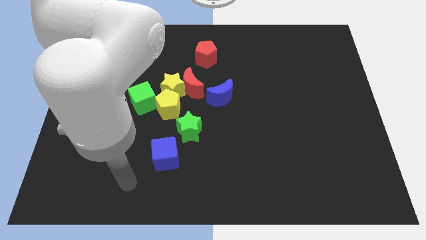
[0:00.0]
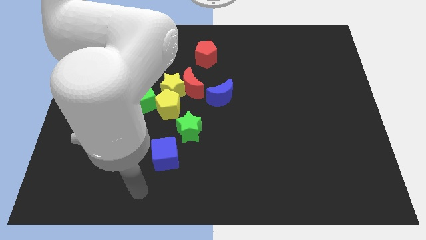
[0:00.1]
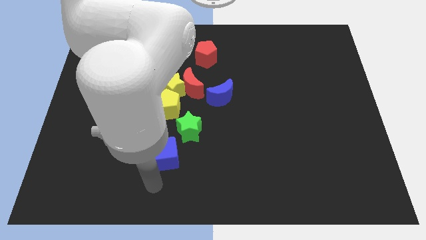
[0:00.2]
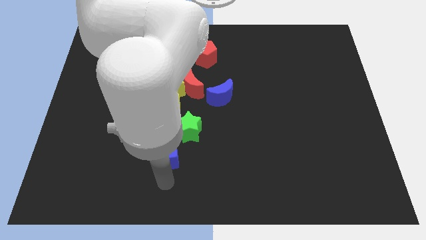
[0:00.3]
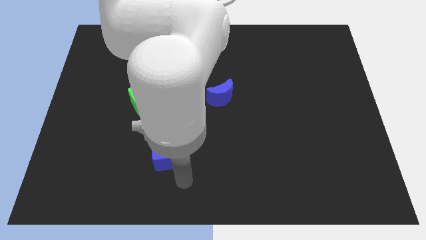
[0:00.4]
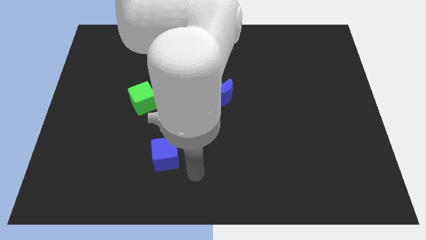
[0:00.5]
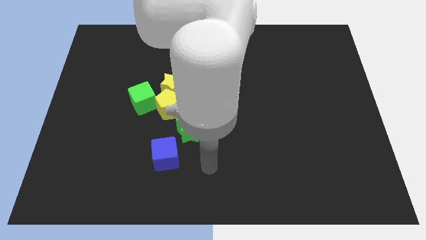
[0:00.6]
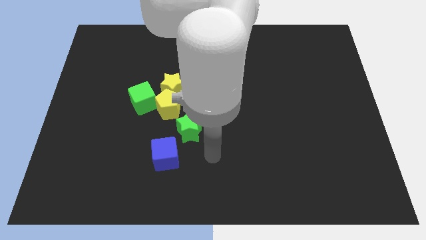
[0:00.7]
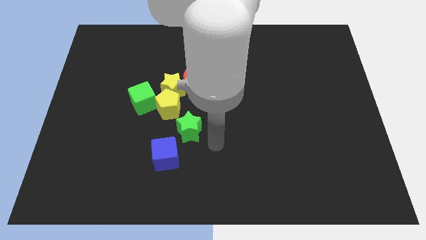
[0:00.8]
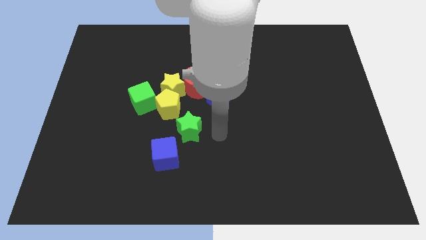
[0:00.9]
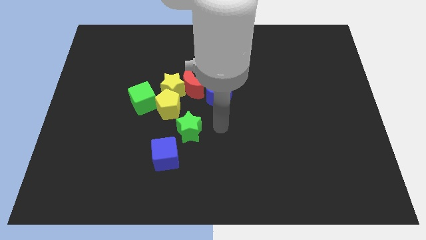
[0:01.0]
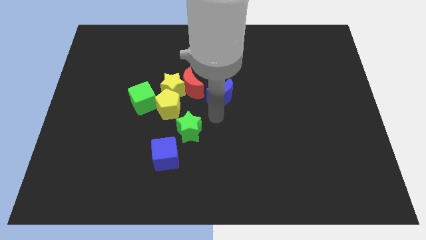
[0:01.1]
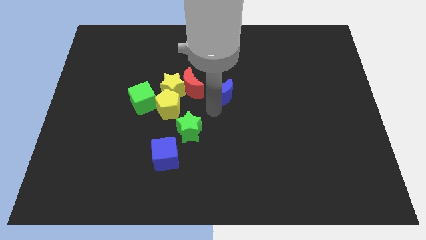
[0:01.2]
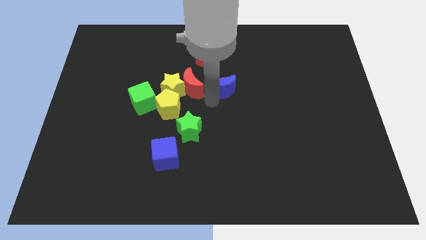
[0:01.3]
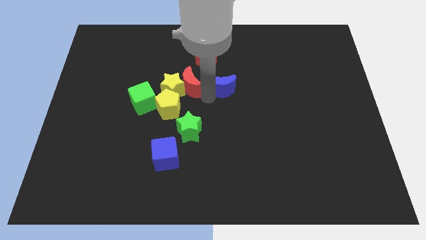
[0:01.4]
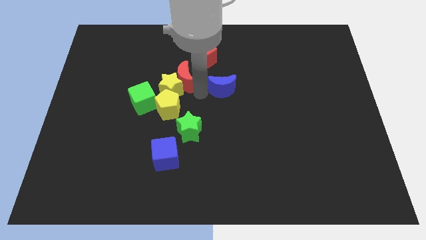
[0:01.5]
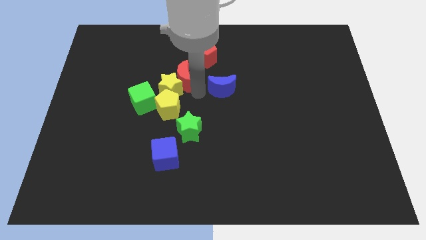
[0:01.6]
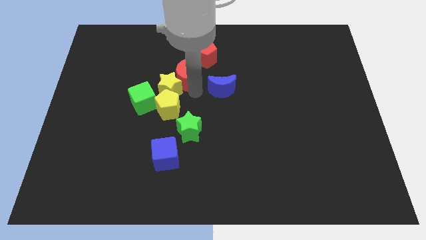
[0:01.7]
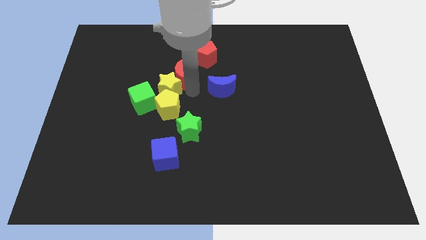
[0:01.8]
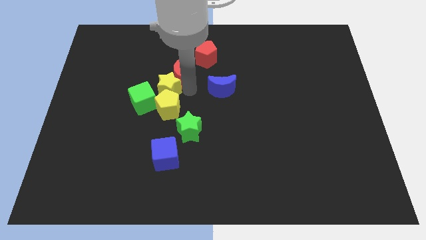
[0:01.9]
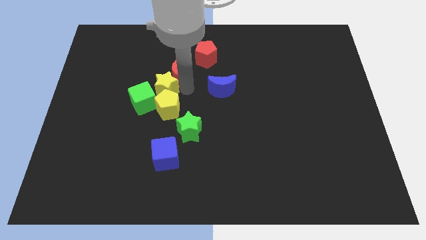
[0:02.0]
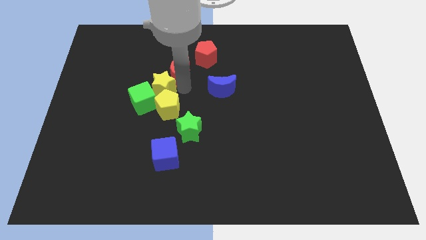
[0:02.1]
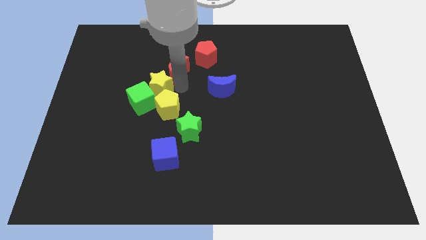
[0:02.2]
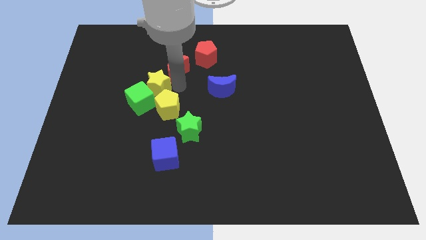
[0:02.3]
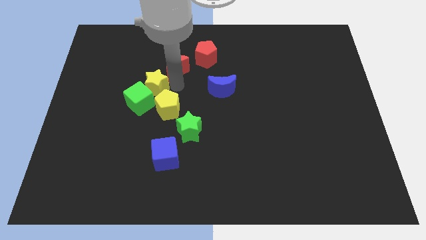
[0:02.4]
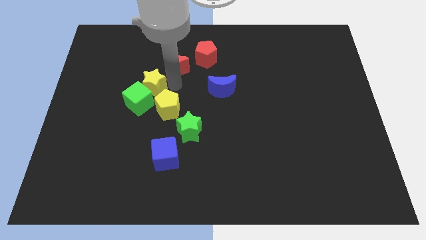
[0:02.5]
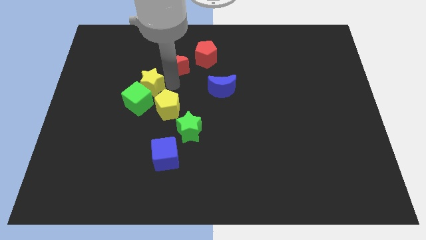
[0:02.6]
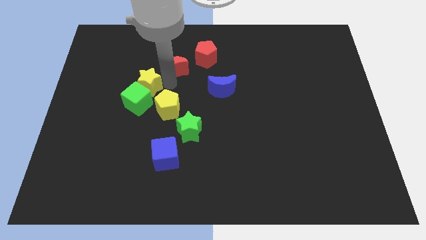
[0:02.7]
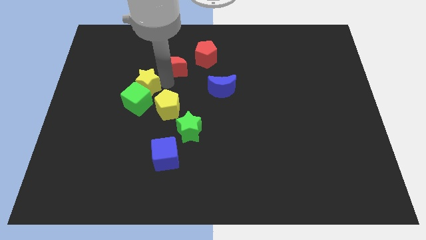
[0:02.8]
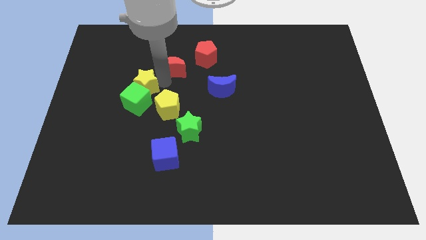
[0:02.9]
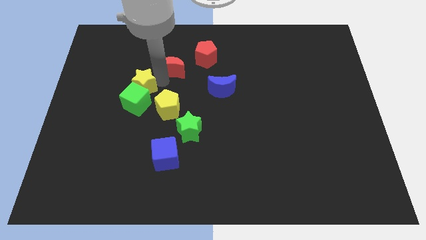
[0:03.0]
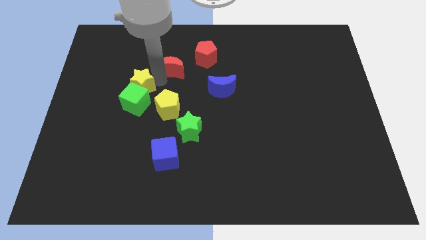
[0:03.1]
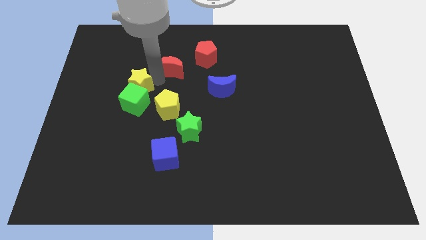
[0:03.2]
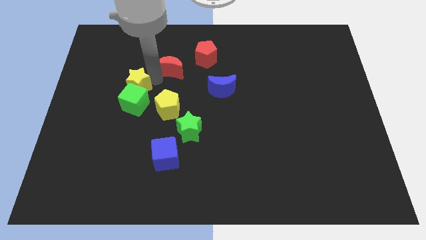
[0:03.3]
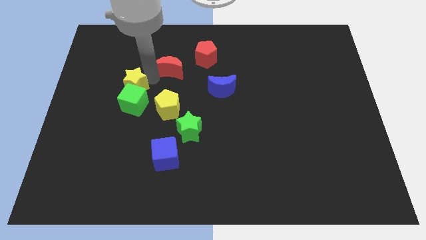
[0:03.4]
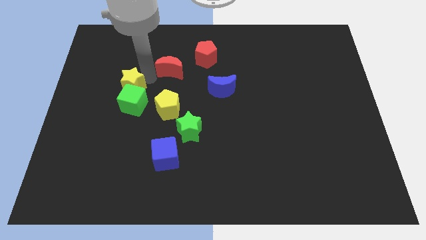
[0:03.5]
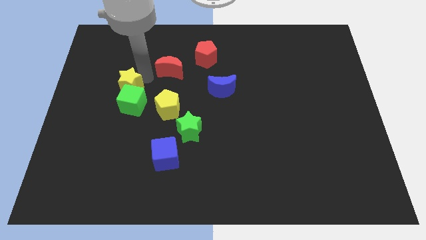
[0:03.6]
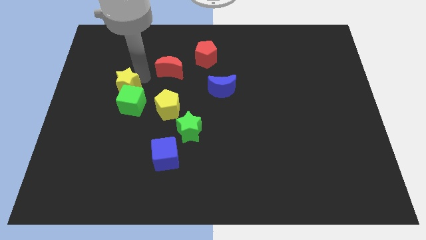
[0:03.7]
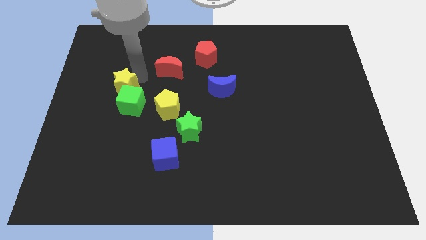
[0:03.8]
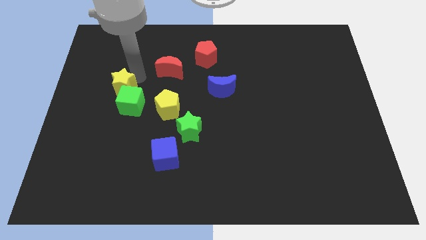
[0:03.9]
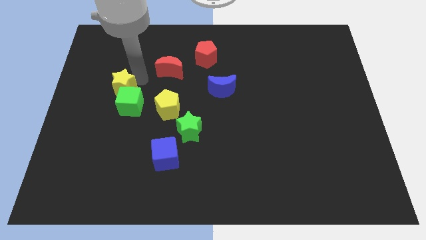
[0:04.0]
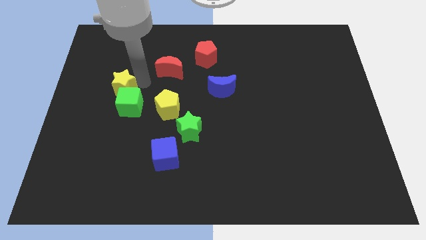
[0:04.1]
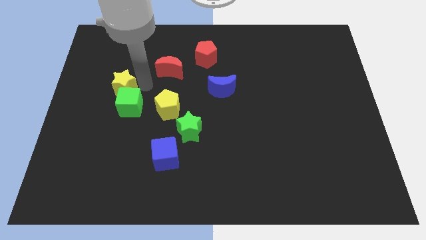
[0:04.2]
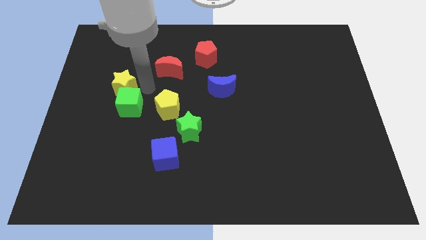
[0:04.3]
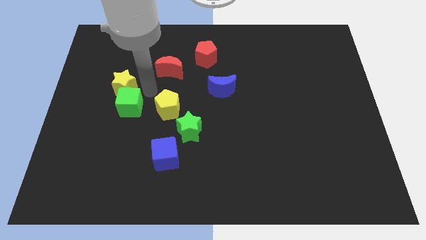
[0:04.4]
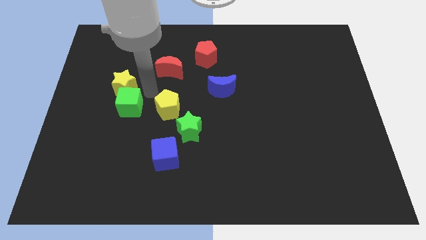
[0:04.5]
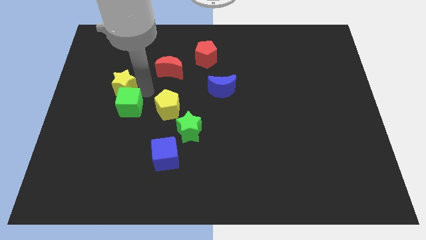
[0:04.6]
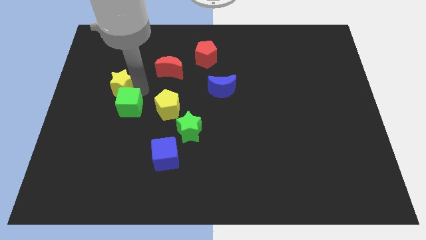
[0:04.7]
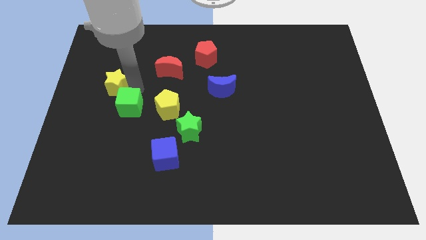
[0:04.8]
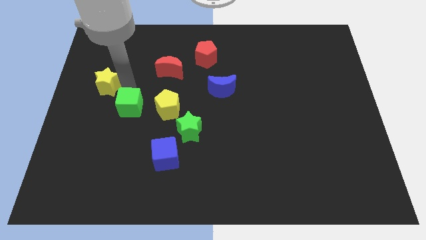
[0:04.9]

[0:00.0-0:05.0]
put the yellow star to the left side of the board

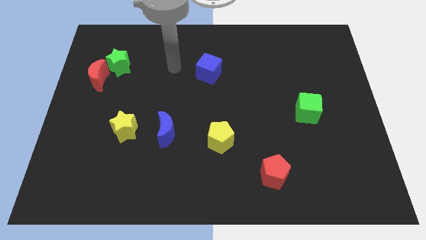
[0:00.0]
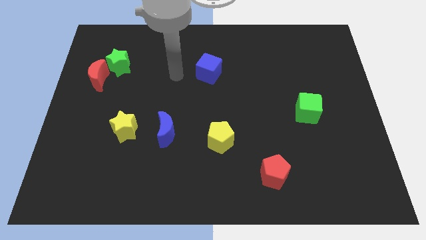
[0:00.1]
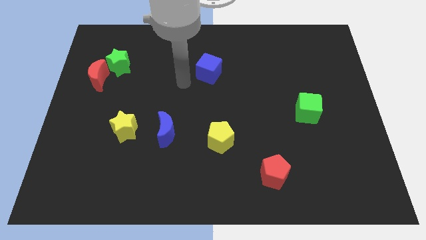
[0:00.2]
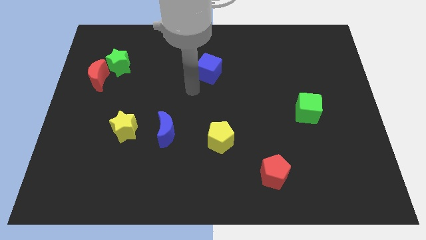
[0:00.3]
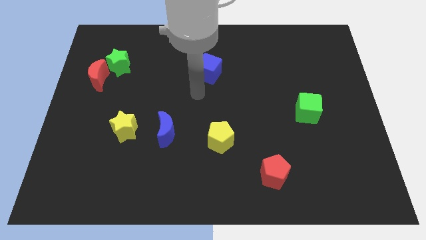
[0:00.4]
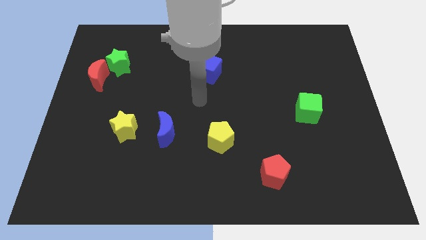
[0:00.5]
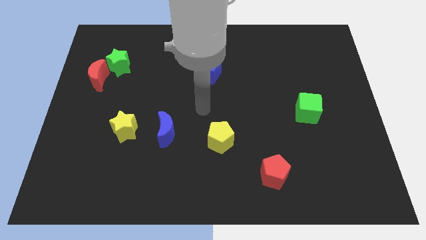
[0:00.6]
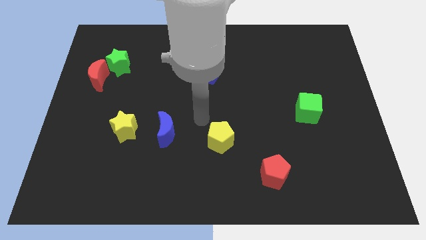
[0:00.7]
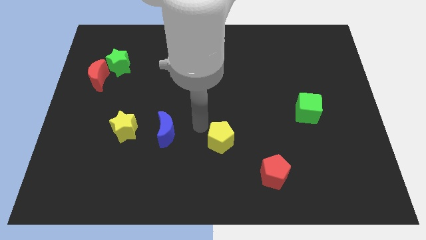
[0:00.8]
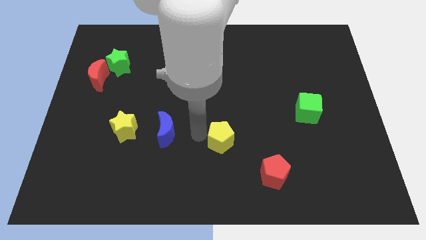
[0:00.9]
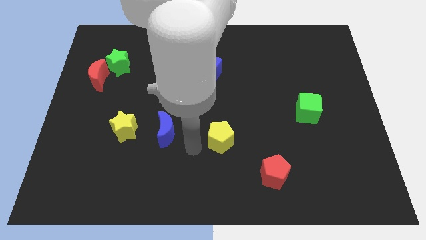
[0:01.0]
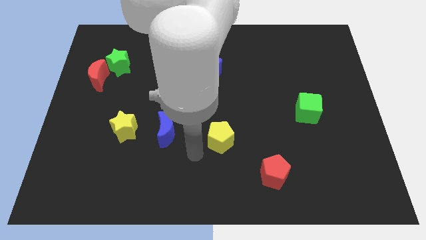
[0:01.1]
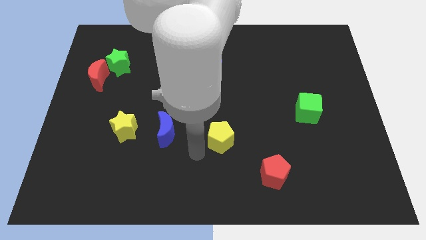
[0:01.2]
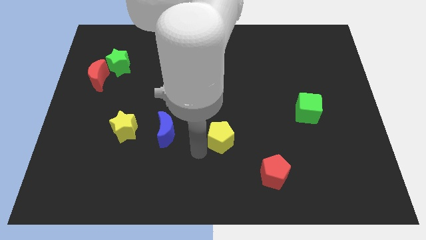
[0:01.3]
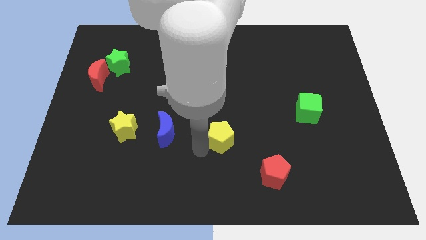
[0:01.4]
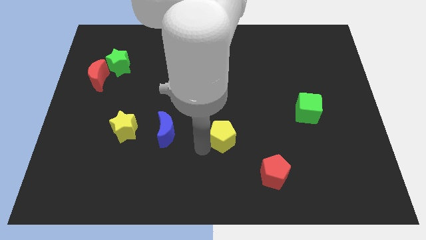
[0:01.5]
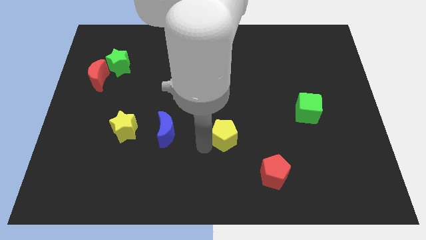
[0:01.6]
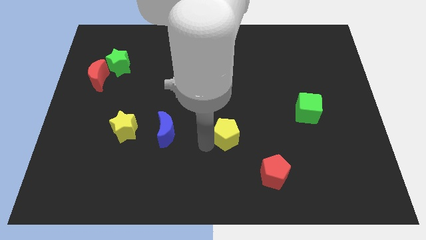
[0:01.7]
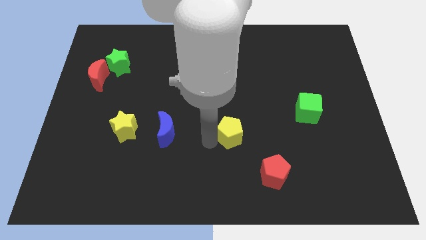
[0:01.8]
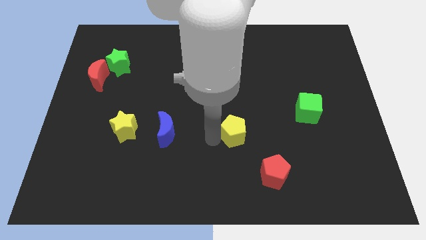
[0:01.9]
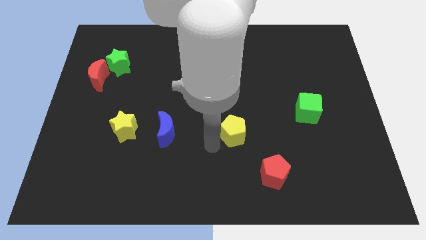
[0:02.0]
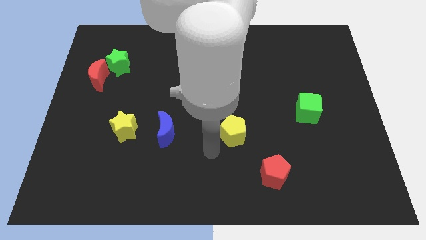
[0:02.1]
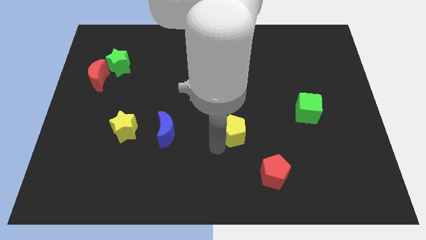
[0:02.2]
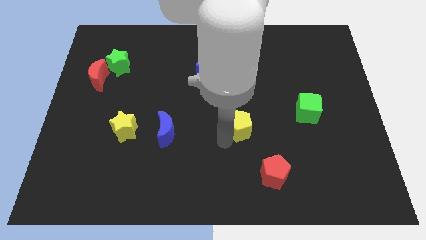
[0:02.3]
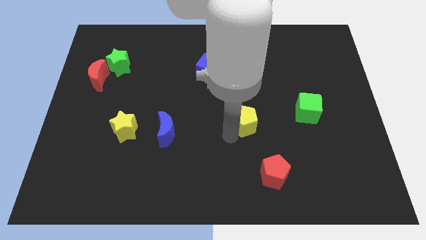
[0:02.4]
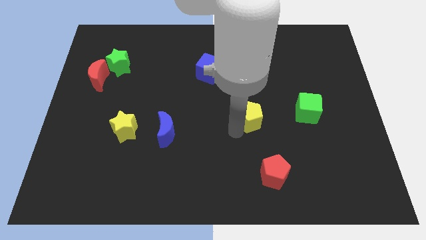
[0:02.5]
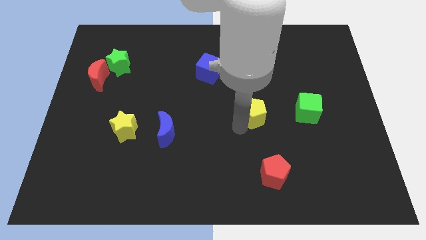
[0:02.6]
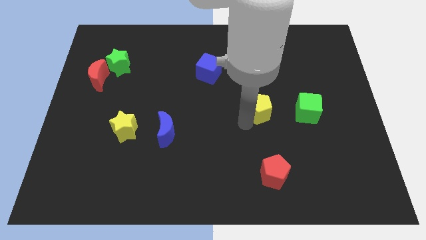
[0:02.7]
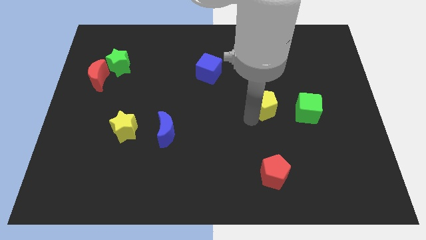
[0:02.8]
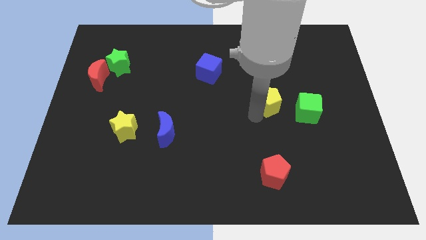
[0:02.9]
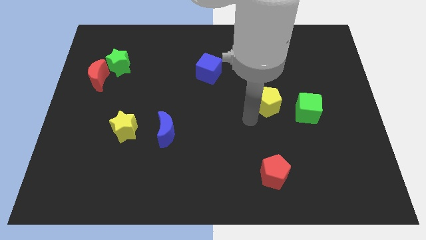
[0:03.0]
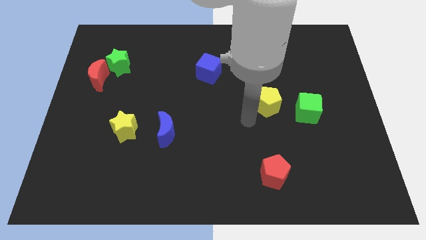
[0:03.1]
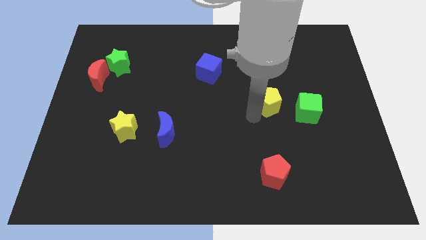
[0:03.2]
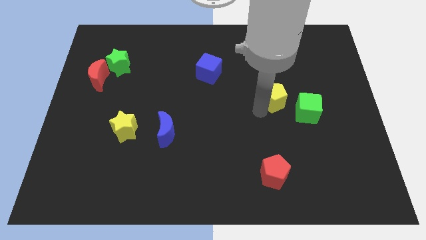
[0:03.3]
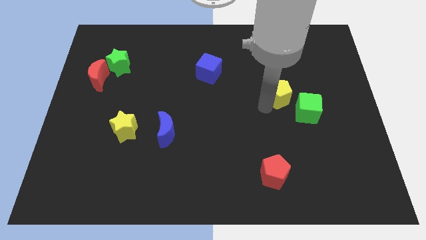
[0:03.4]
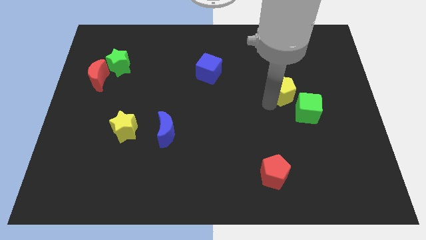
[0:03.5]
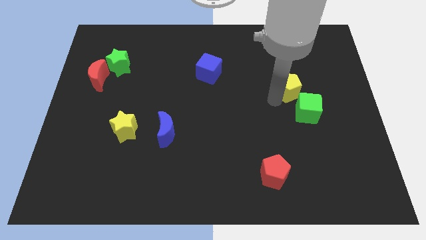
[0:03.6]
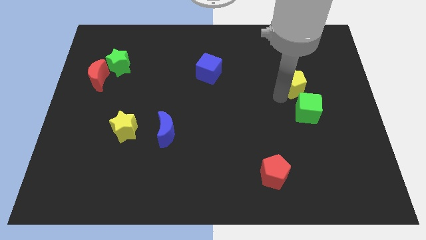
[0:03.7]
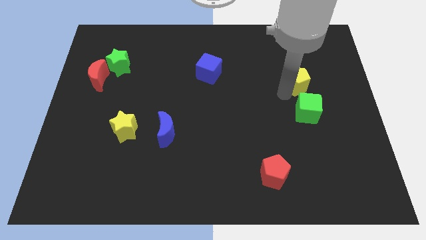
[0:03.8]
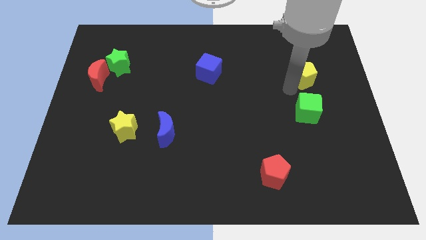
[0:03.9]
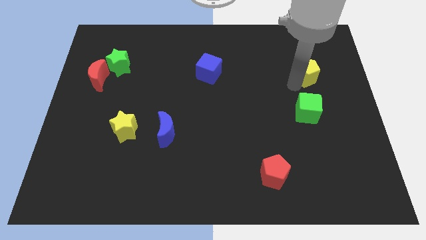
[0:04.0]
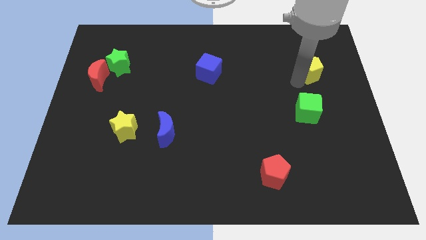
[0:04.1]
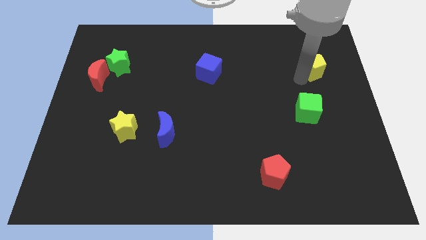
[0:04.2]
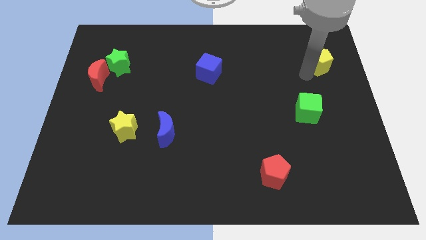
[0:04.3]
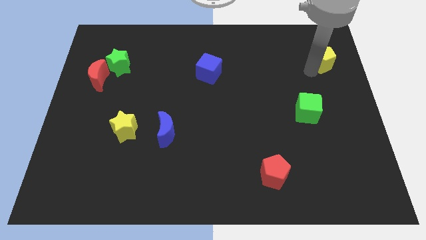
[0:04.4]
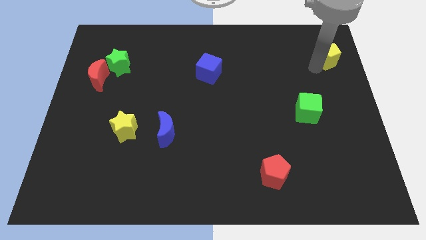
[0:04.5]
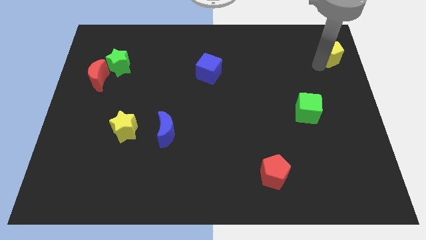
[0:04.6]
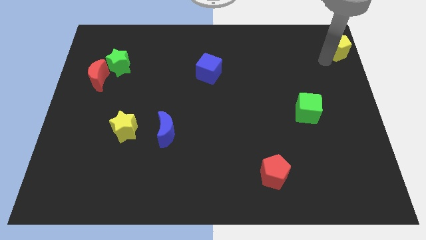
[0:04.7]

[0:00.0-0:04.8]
put the yellow pentagon to the top right of the board
